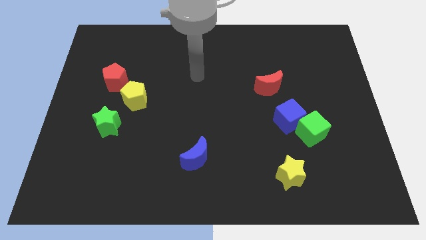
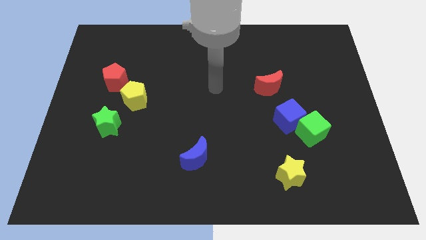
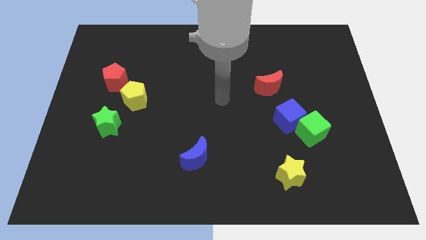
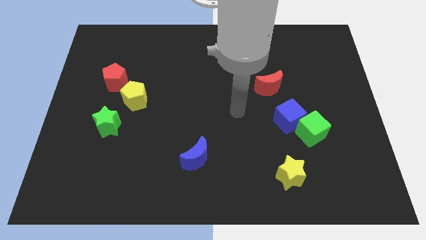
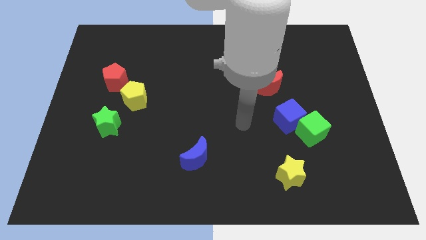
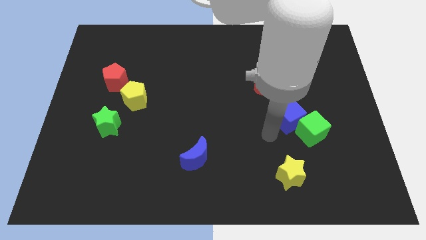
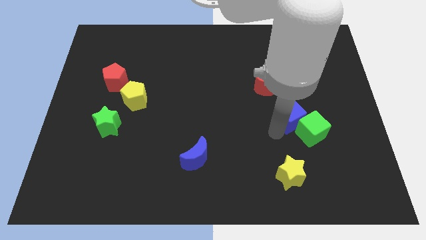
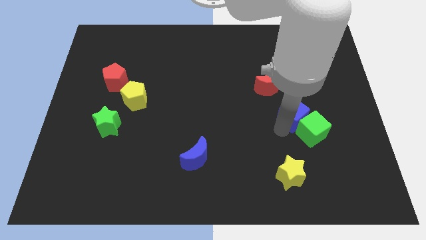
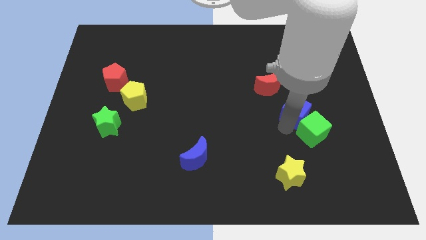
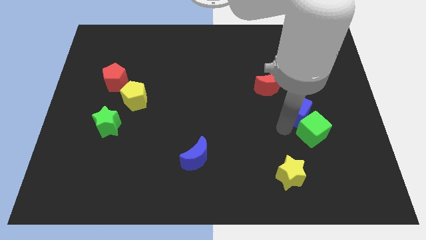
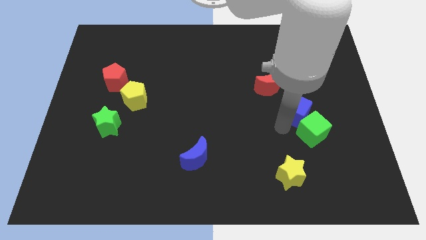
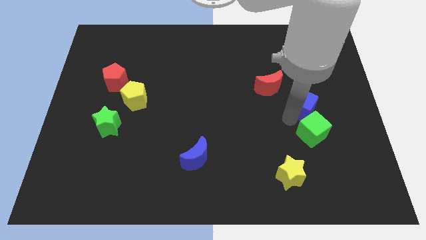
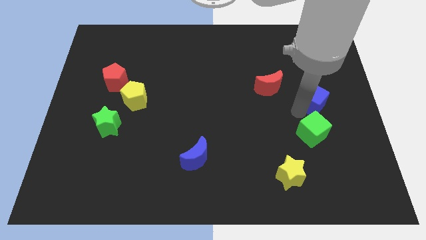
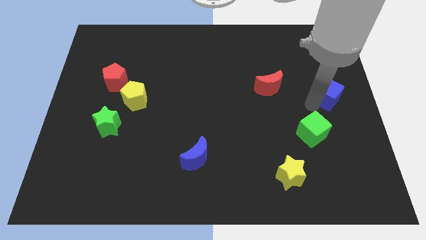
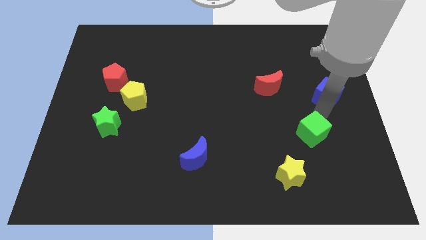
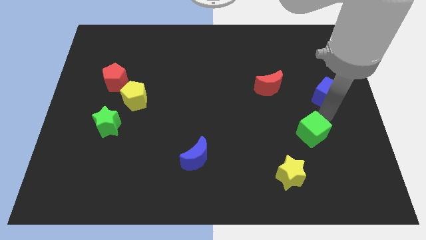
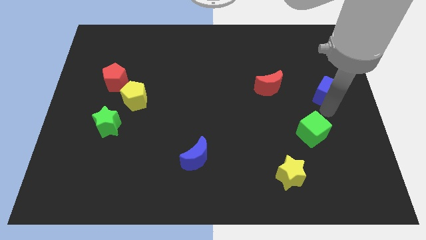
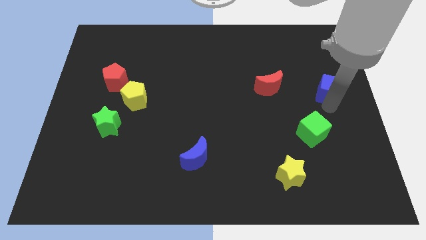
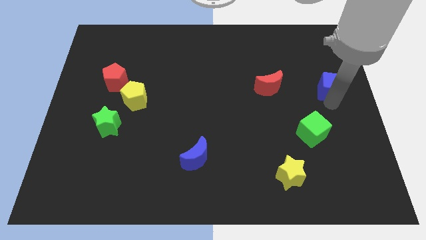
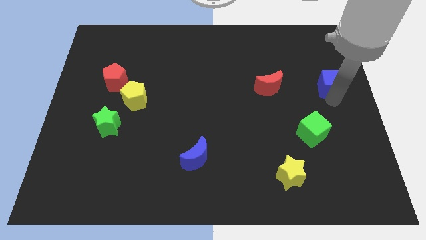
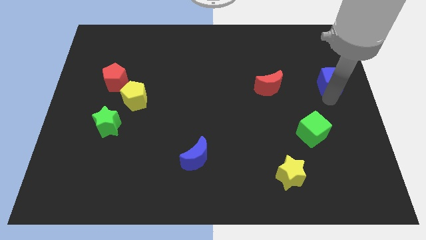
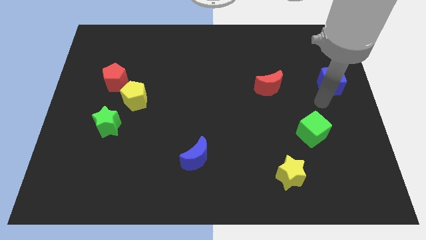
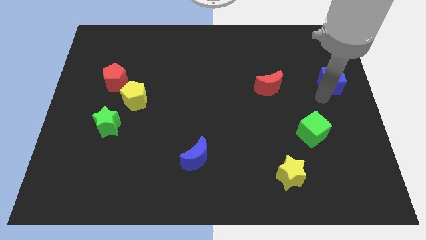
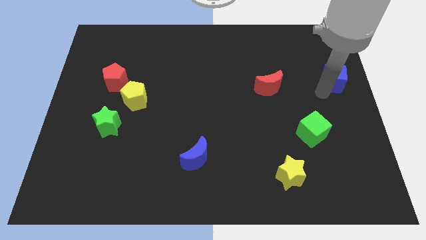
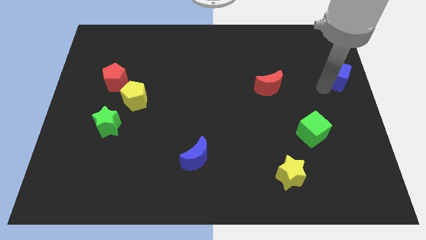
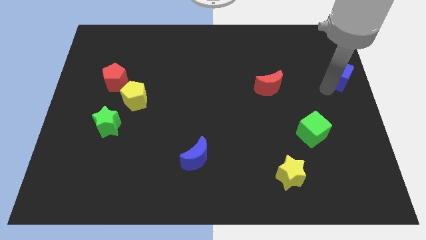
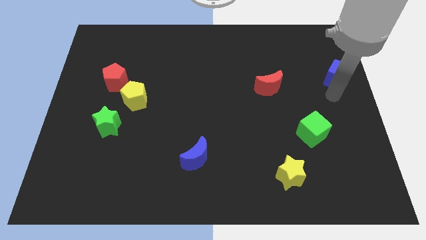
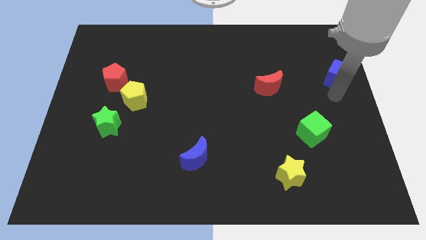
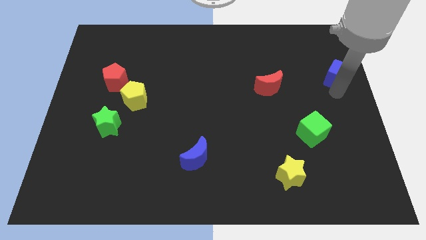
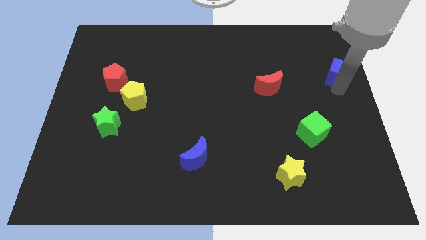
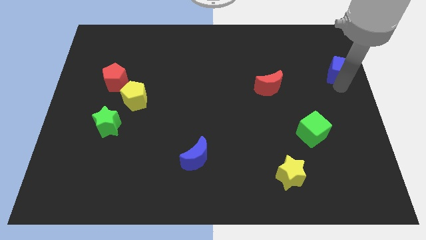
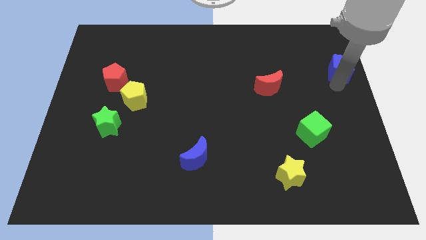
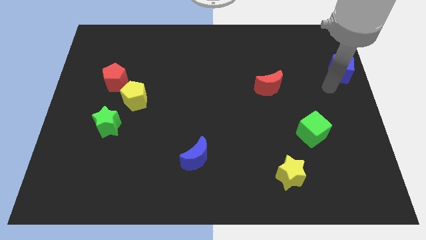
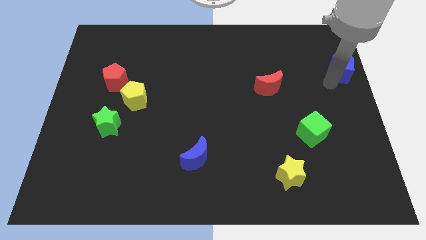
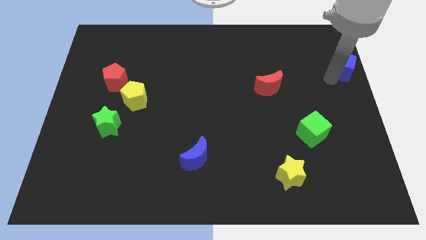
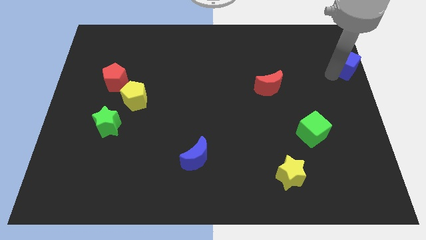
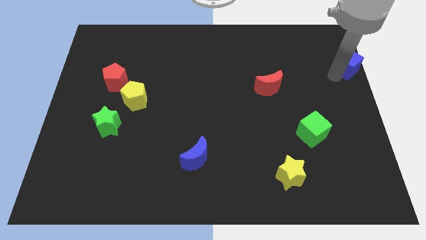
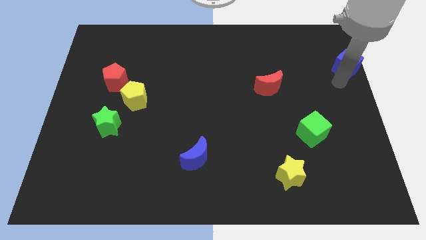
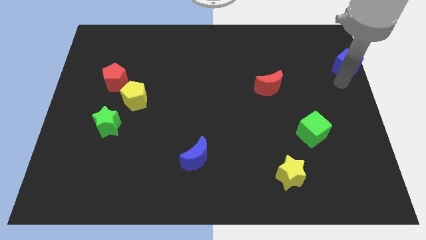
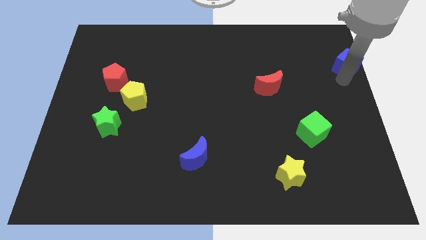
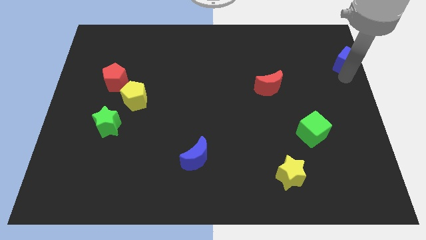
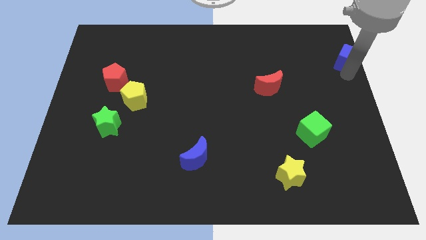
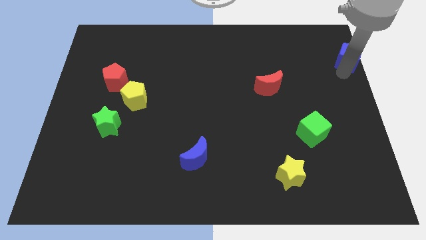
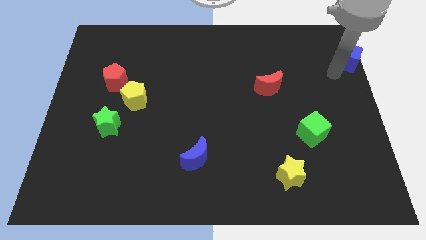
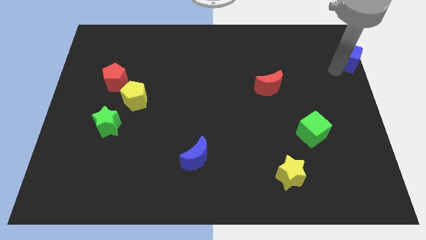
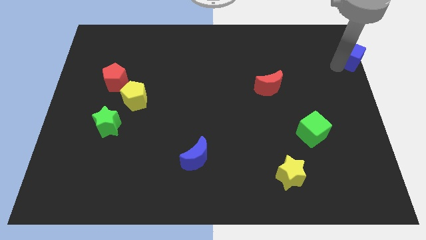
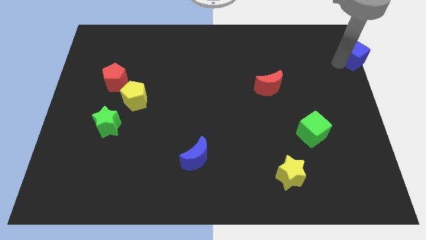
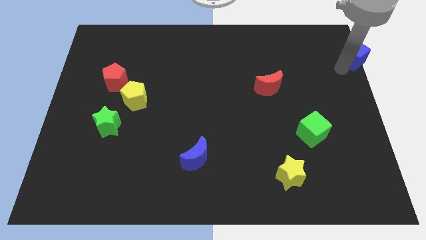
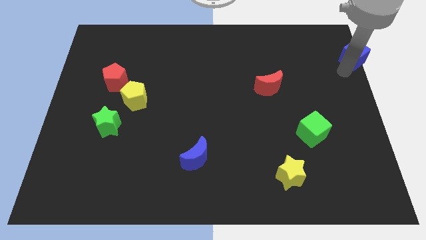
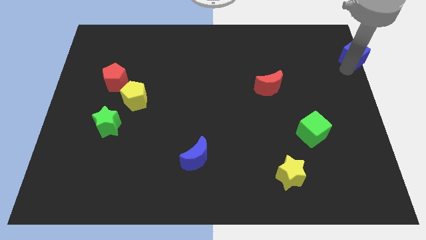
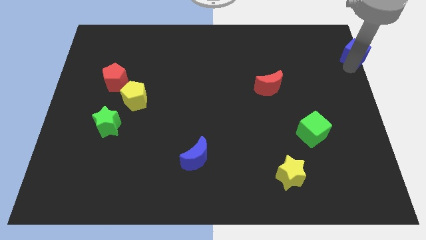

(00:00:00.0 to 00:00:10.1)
move the blue cube to the upper right corner

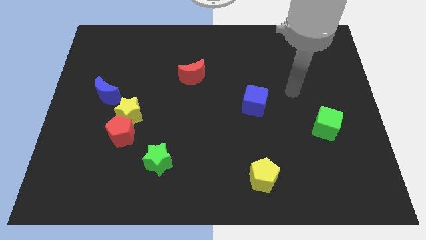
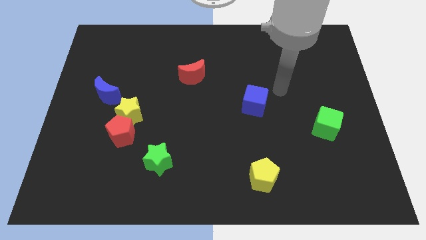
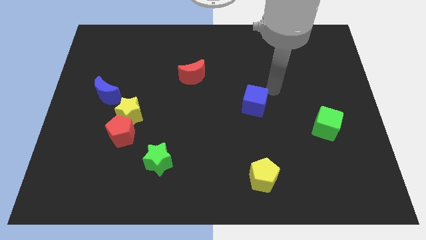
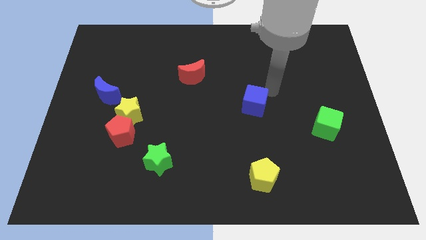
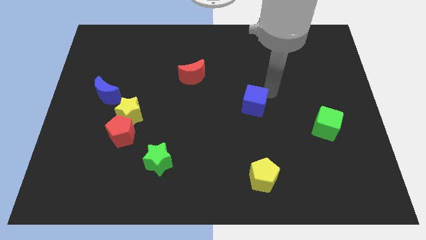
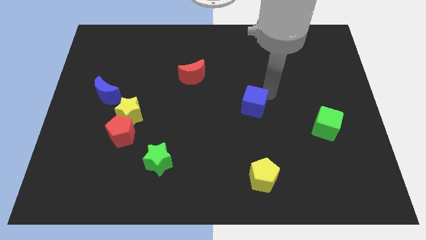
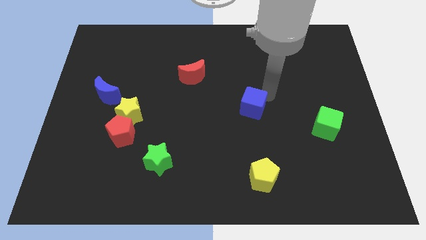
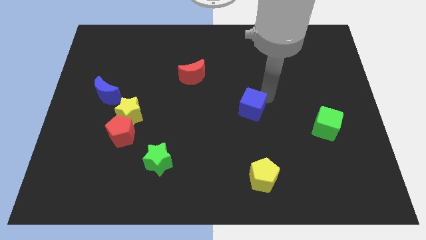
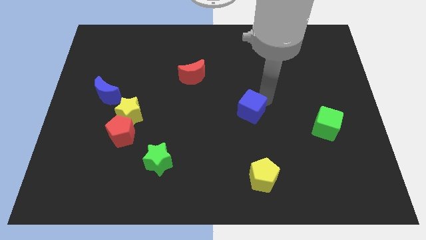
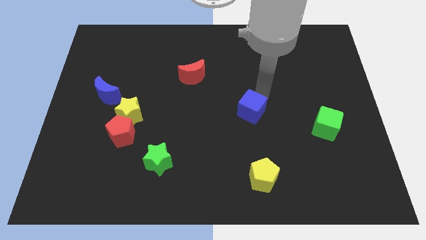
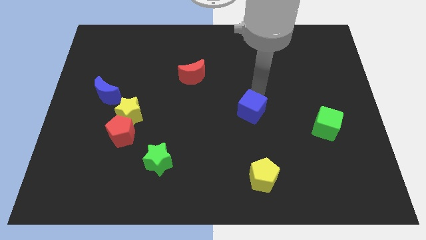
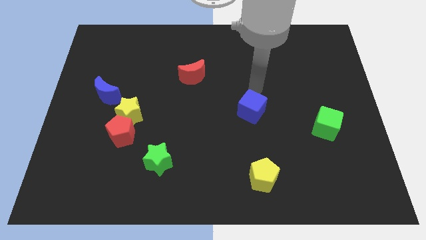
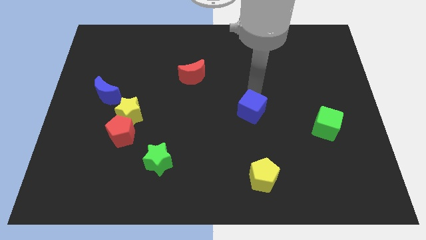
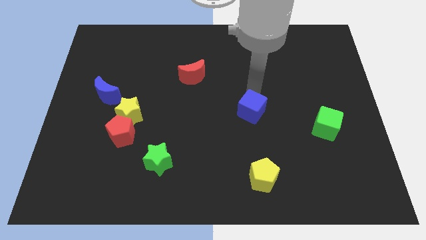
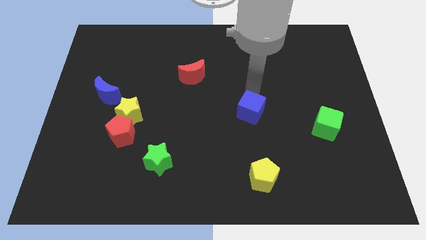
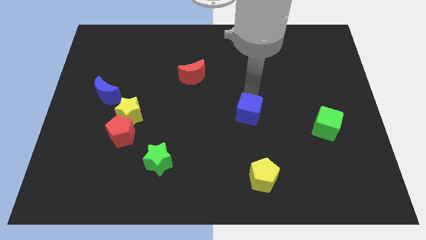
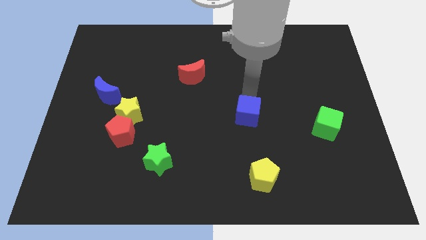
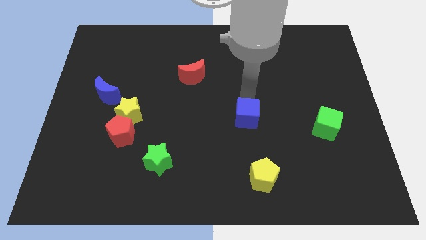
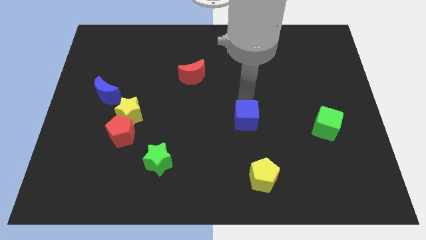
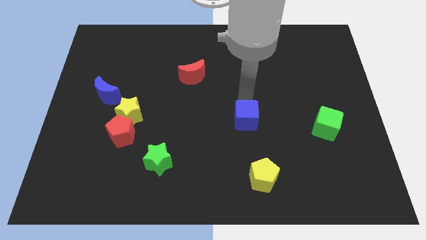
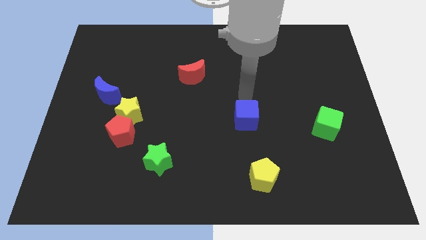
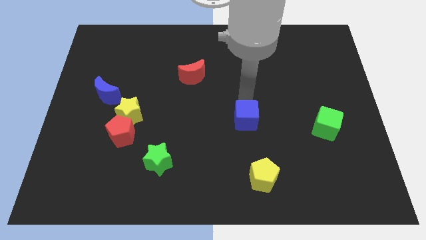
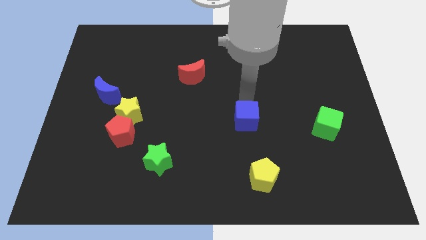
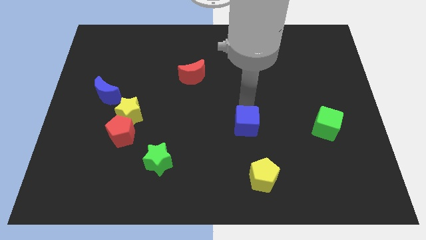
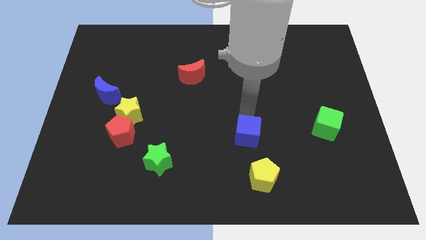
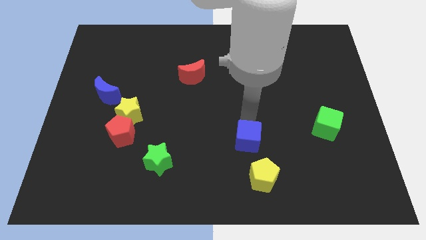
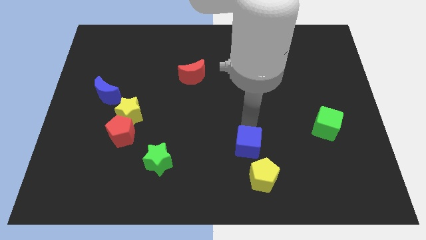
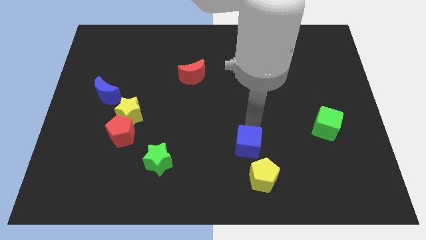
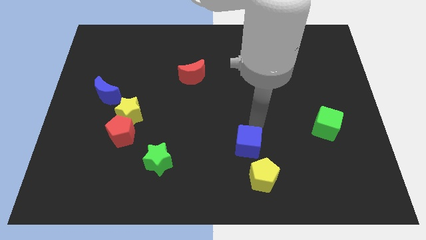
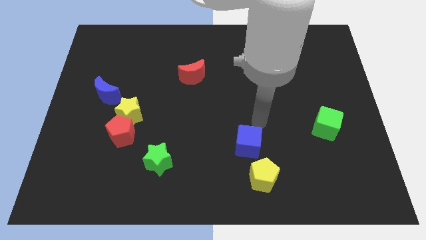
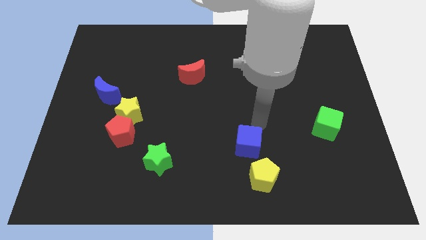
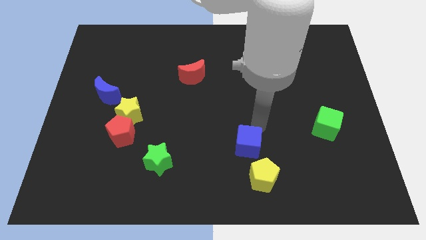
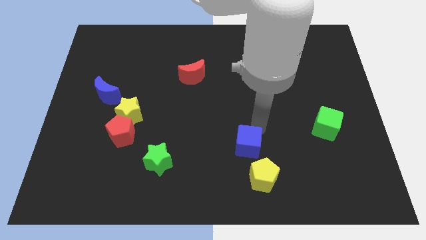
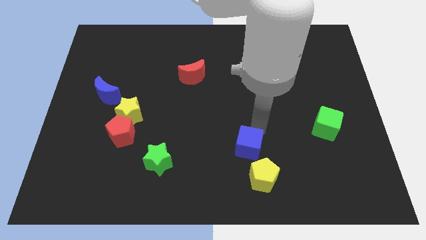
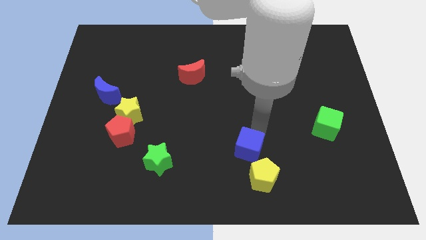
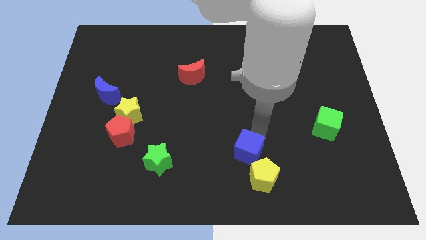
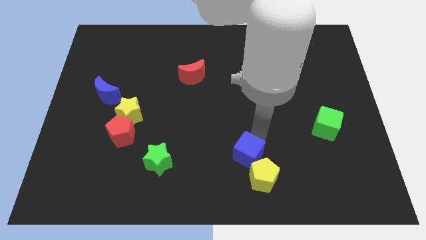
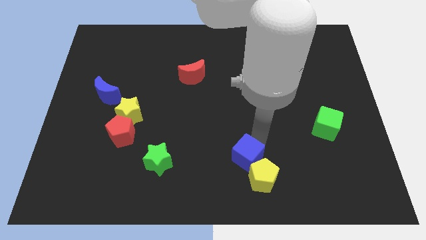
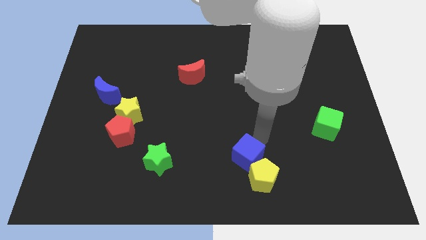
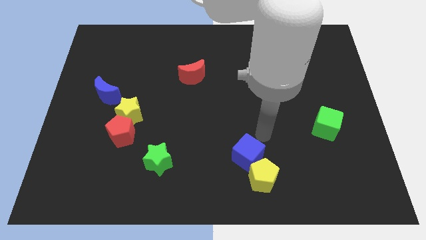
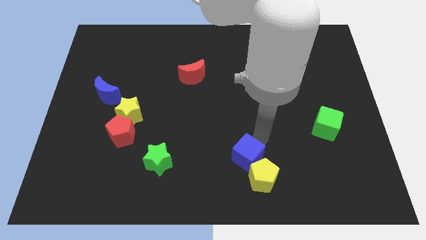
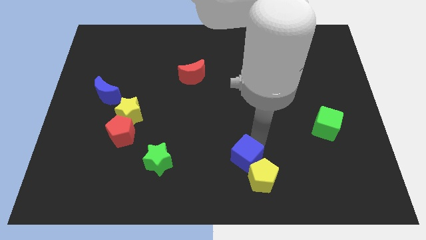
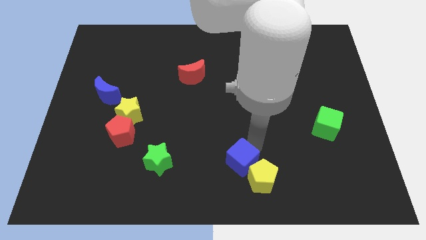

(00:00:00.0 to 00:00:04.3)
slide the blue cube to the bottom
